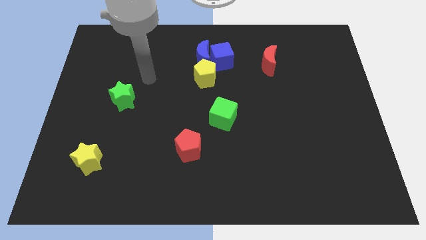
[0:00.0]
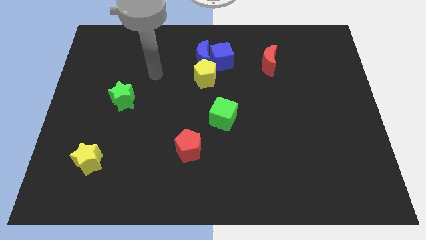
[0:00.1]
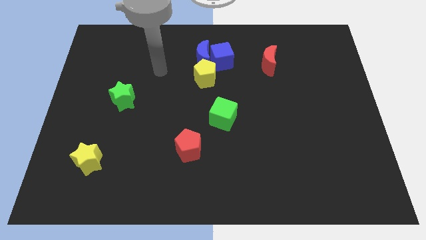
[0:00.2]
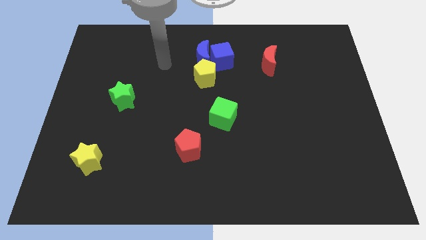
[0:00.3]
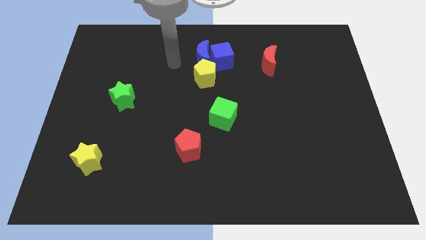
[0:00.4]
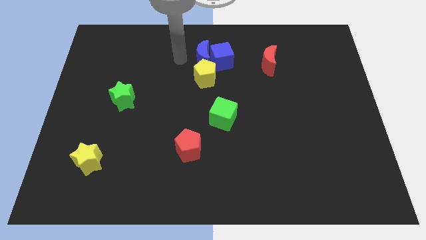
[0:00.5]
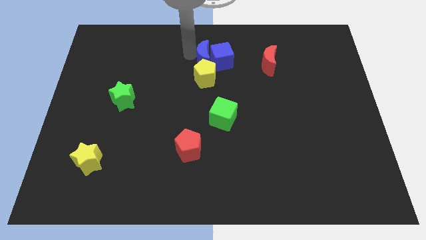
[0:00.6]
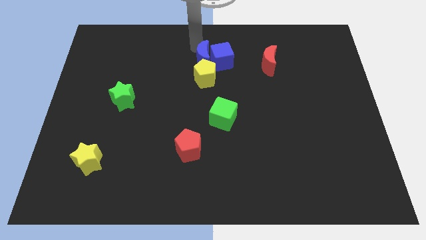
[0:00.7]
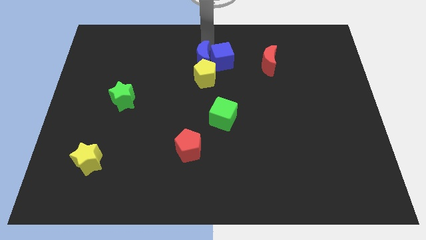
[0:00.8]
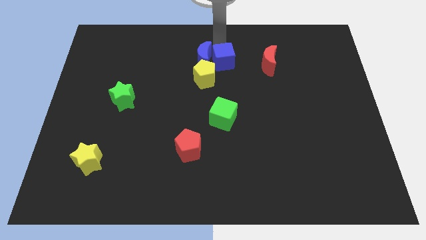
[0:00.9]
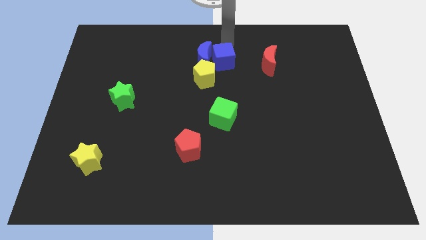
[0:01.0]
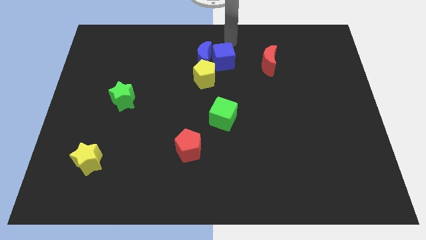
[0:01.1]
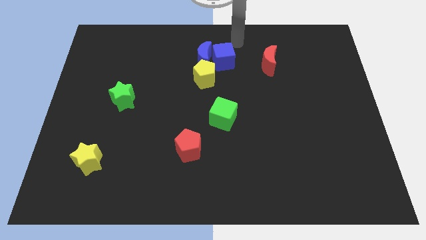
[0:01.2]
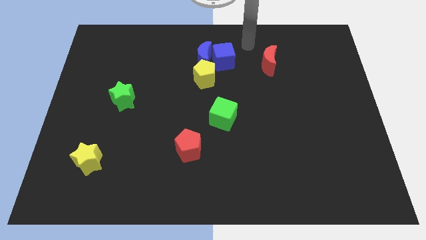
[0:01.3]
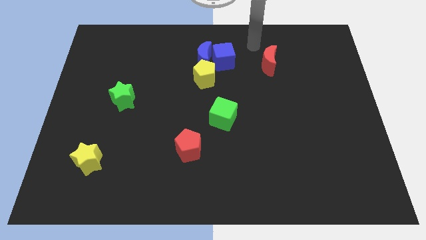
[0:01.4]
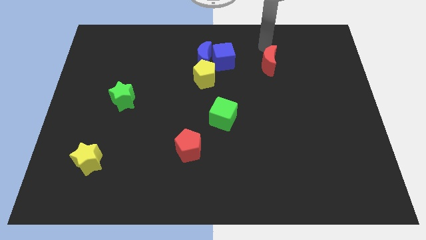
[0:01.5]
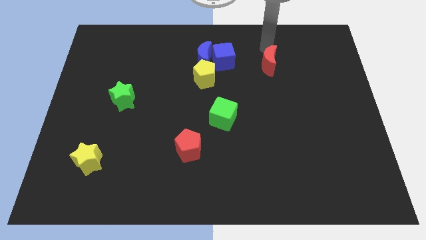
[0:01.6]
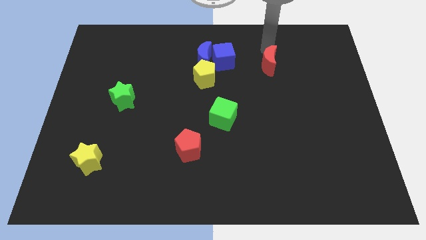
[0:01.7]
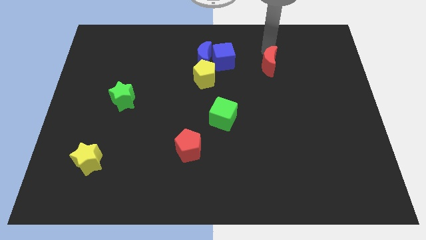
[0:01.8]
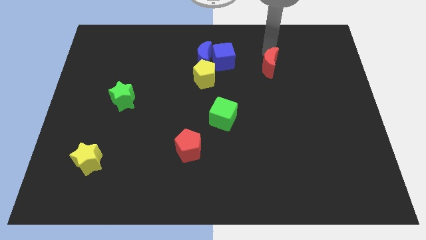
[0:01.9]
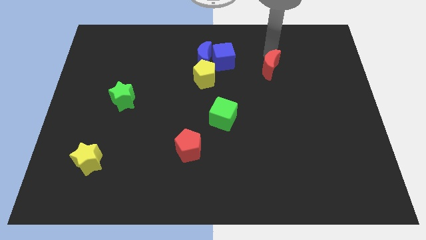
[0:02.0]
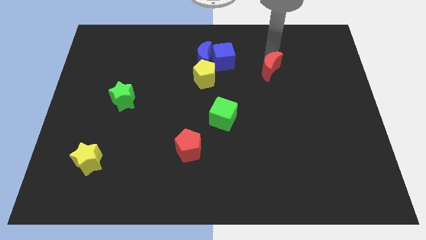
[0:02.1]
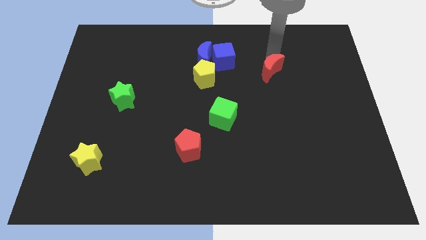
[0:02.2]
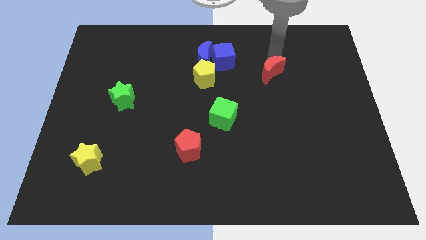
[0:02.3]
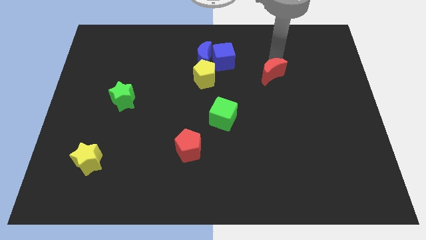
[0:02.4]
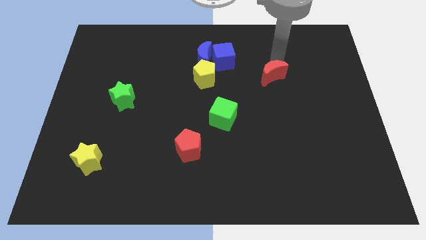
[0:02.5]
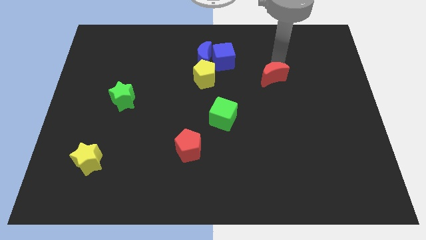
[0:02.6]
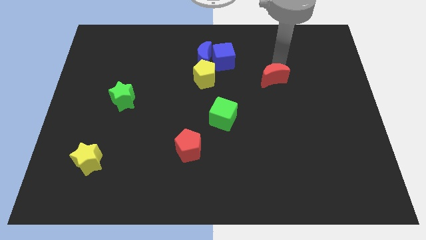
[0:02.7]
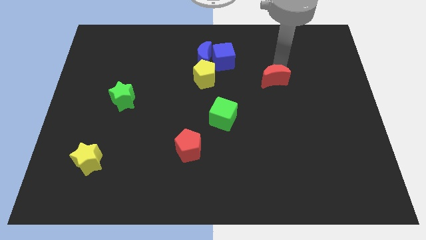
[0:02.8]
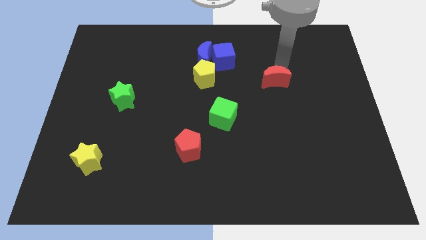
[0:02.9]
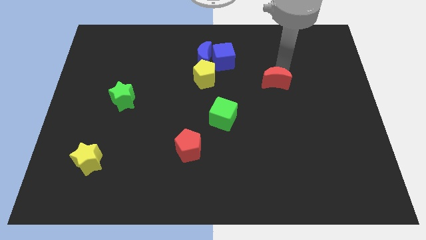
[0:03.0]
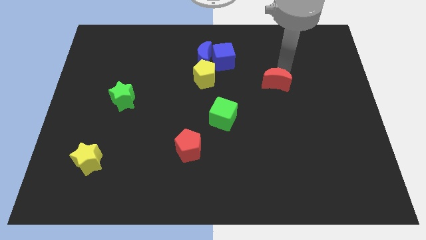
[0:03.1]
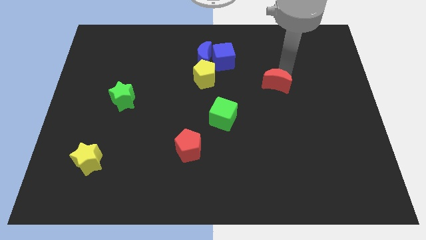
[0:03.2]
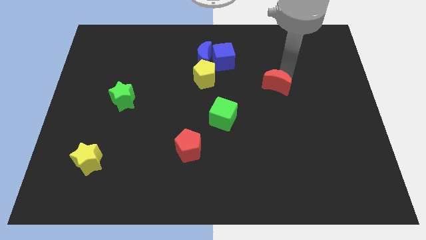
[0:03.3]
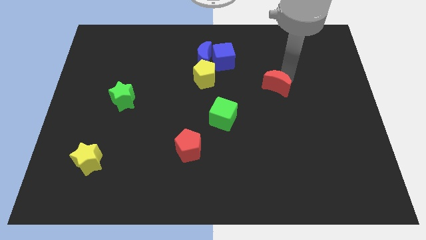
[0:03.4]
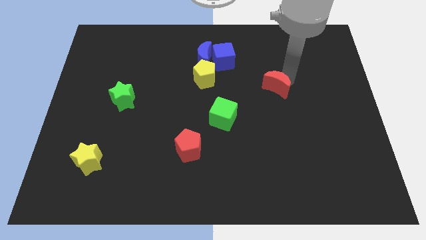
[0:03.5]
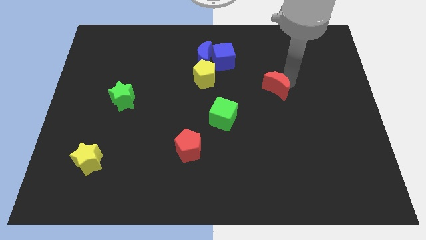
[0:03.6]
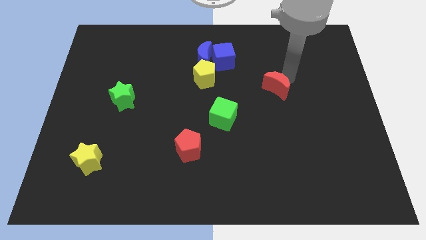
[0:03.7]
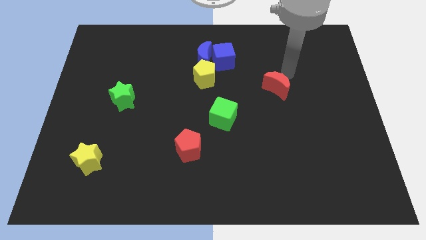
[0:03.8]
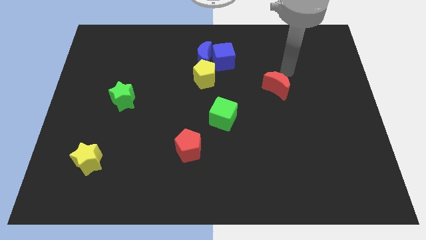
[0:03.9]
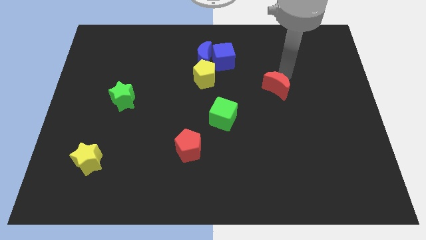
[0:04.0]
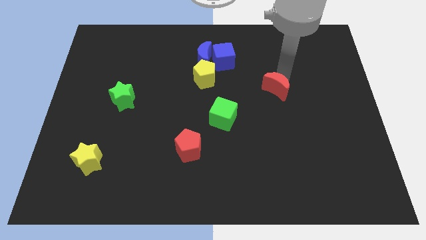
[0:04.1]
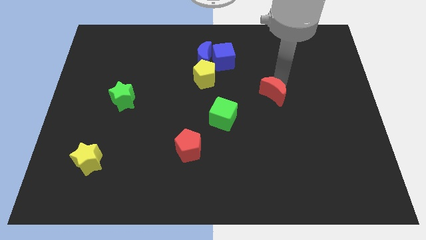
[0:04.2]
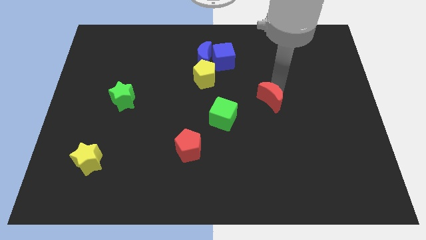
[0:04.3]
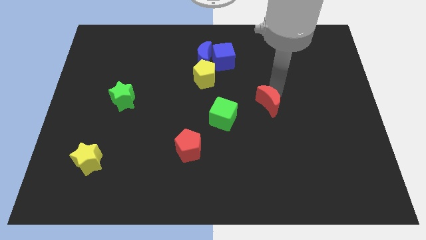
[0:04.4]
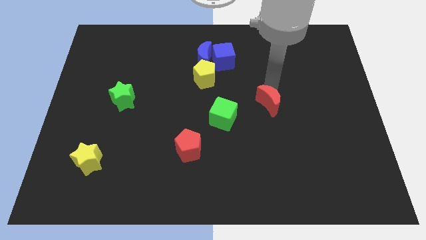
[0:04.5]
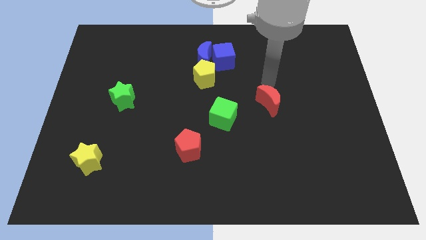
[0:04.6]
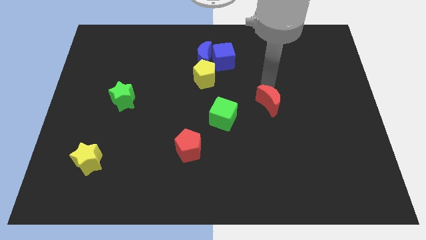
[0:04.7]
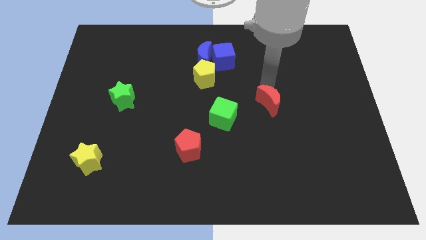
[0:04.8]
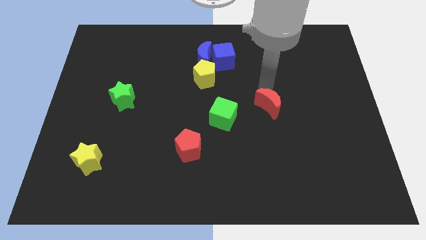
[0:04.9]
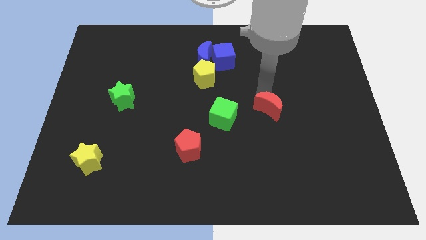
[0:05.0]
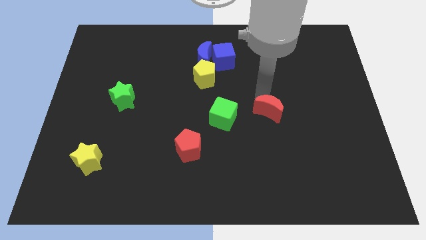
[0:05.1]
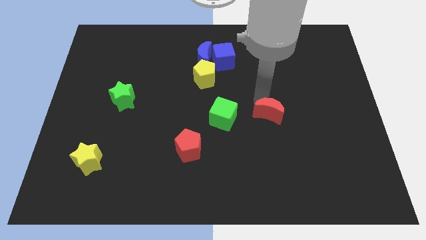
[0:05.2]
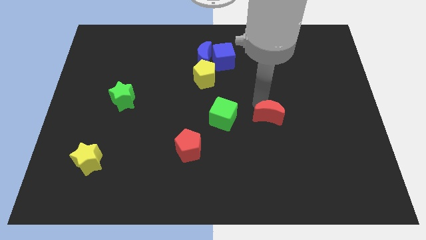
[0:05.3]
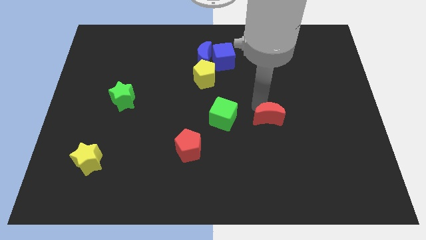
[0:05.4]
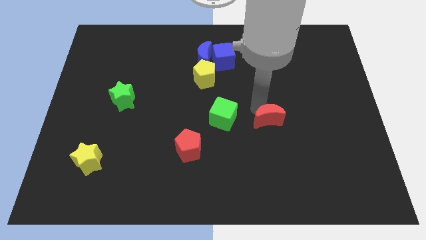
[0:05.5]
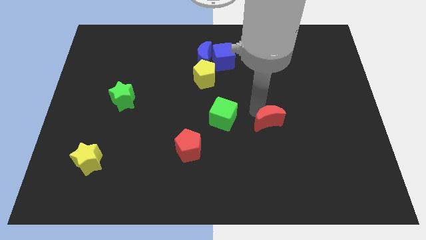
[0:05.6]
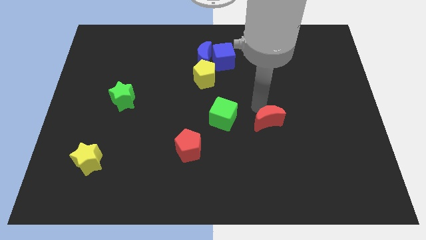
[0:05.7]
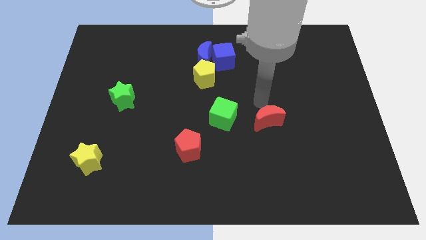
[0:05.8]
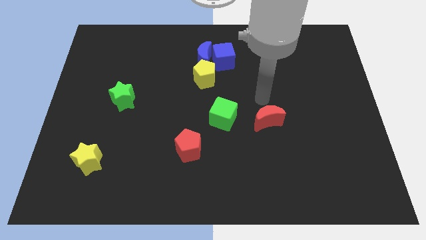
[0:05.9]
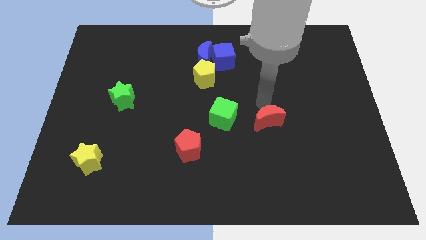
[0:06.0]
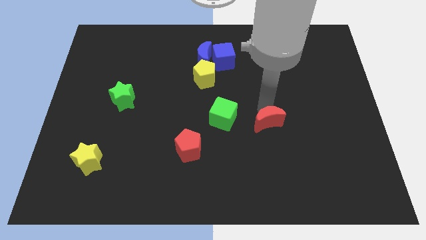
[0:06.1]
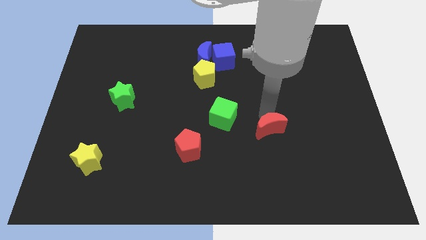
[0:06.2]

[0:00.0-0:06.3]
push the red moon down

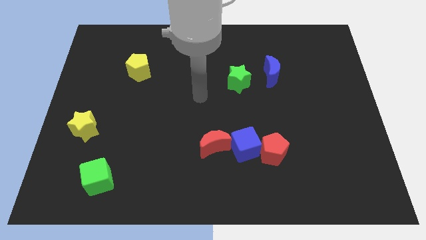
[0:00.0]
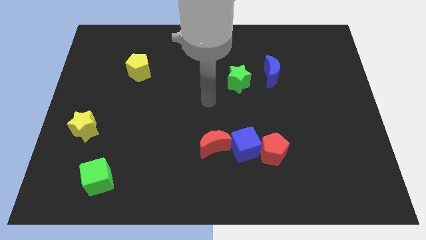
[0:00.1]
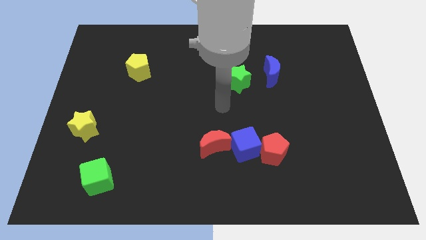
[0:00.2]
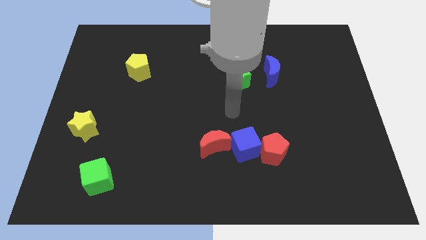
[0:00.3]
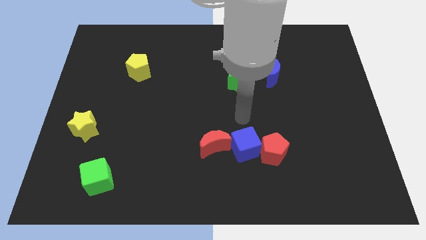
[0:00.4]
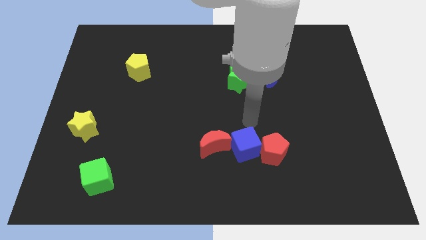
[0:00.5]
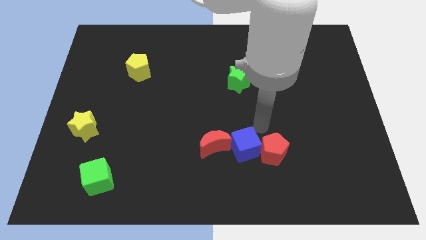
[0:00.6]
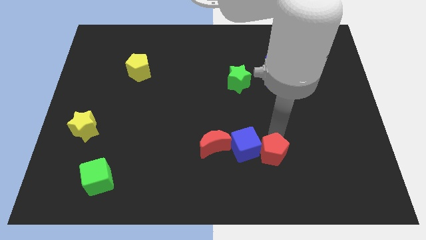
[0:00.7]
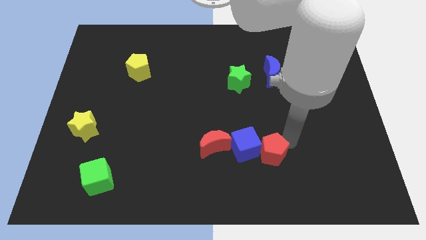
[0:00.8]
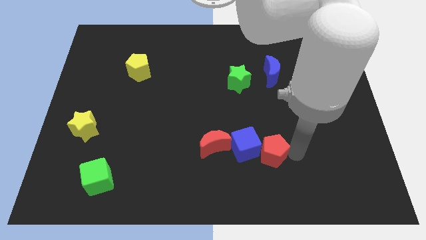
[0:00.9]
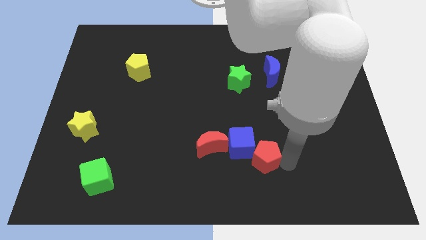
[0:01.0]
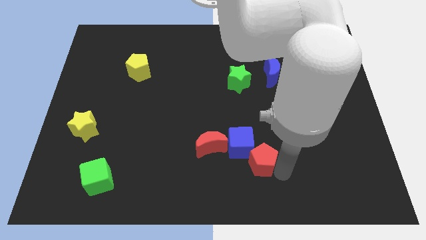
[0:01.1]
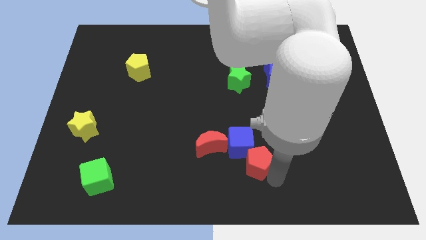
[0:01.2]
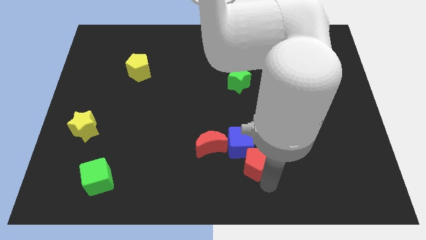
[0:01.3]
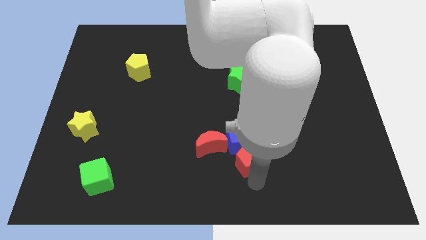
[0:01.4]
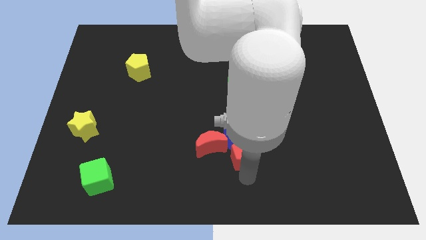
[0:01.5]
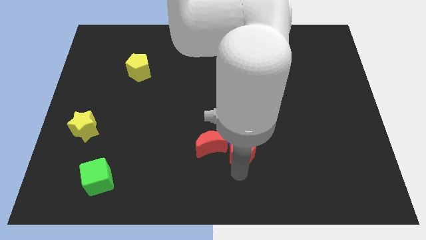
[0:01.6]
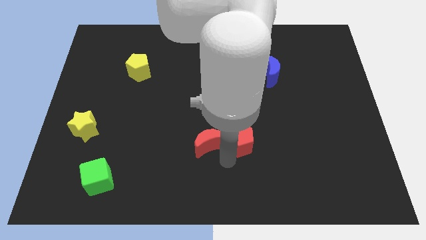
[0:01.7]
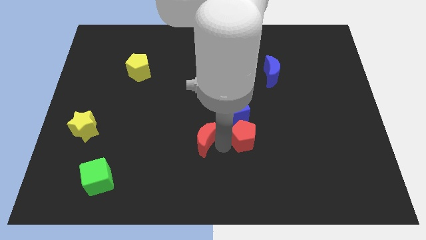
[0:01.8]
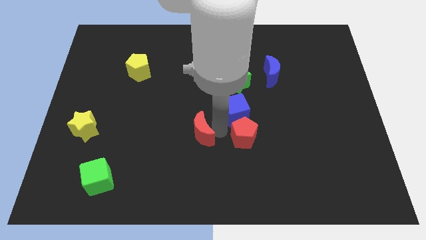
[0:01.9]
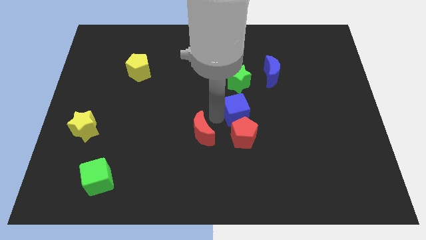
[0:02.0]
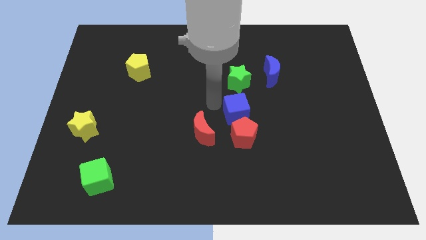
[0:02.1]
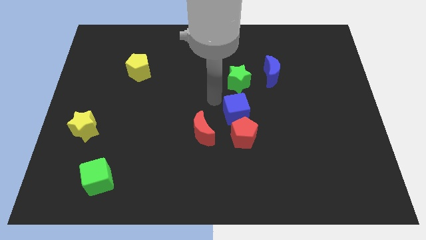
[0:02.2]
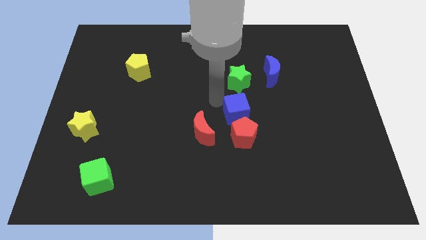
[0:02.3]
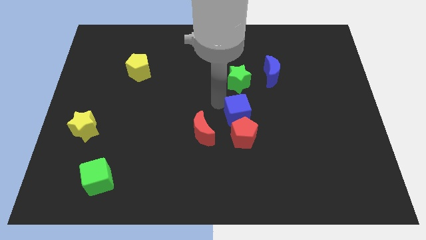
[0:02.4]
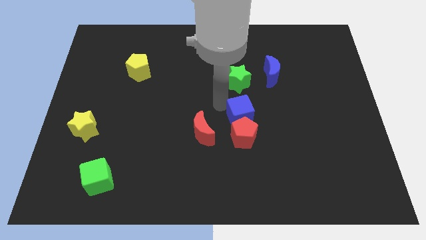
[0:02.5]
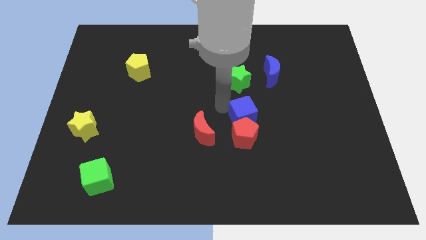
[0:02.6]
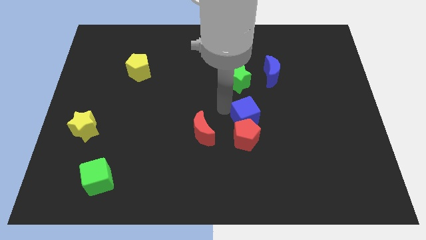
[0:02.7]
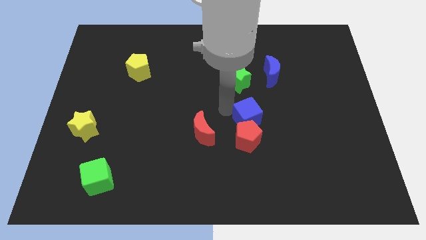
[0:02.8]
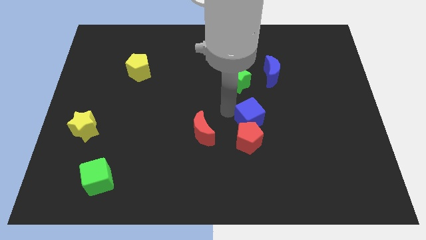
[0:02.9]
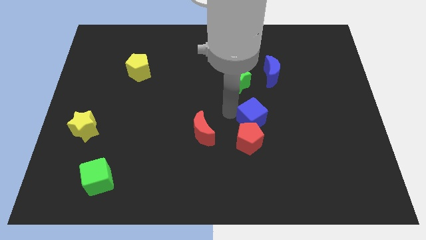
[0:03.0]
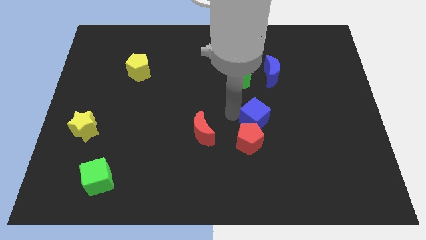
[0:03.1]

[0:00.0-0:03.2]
slightly slide the blue cube upwards and to the right
